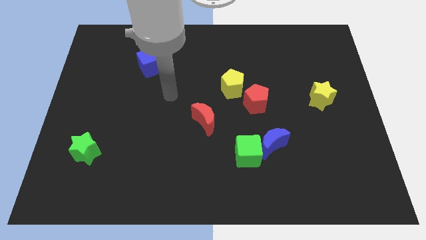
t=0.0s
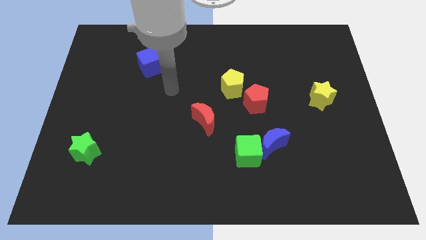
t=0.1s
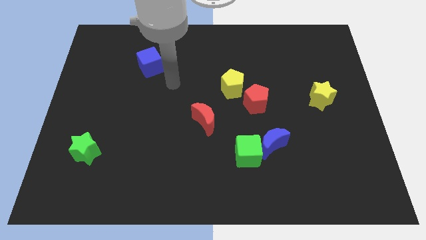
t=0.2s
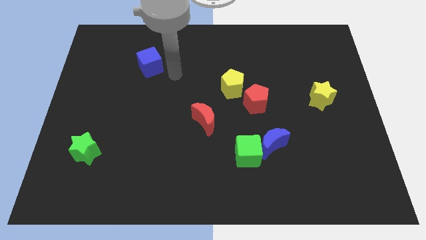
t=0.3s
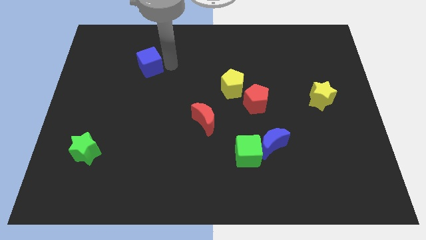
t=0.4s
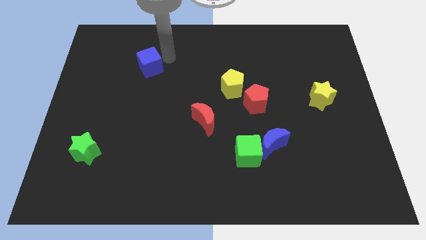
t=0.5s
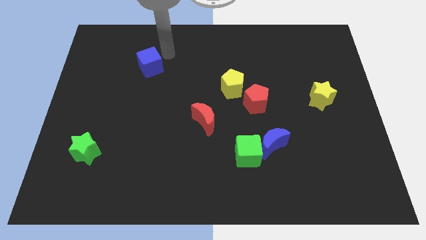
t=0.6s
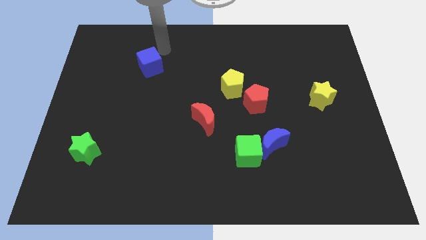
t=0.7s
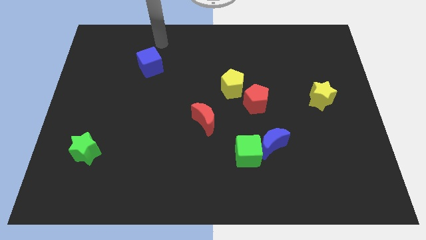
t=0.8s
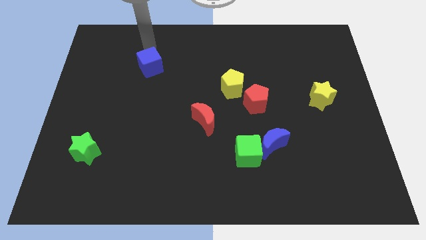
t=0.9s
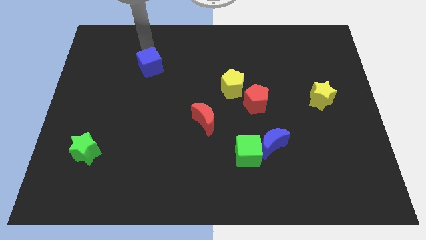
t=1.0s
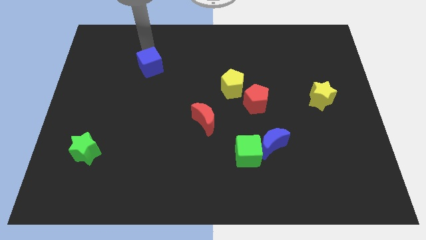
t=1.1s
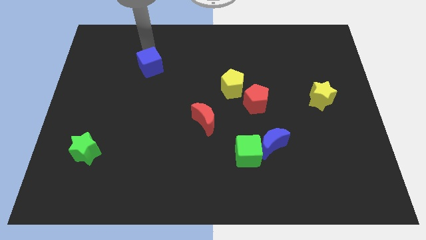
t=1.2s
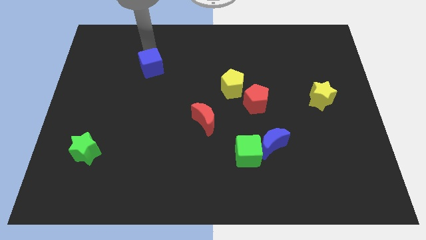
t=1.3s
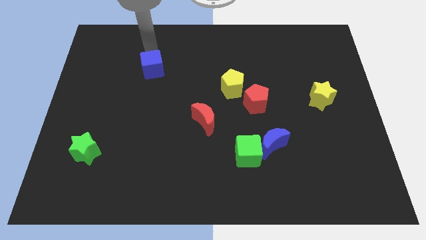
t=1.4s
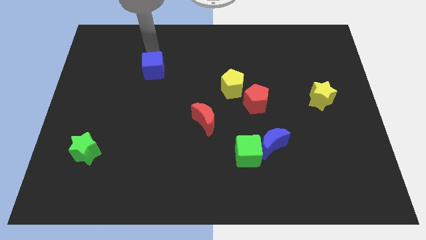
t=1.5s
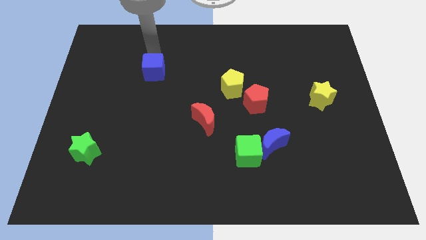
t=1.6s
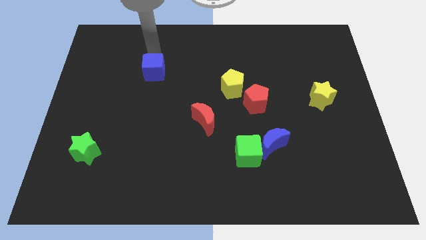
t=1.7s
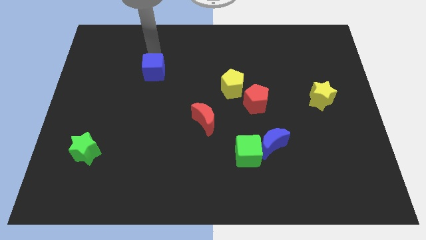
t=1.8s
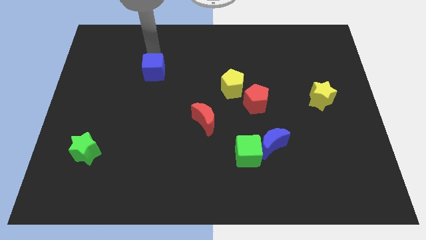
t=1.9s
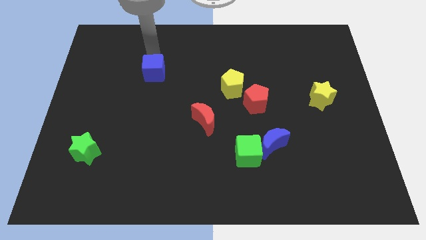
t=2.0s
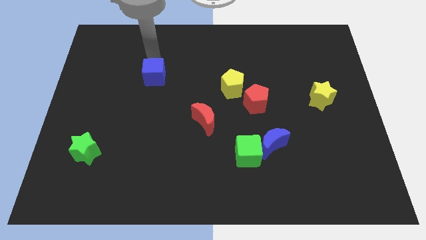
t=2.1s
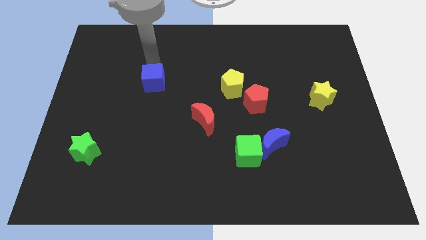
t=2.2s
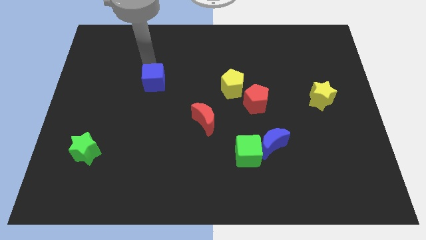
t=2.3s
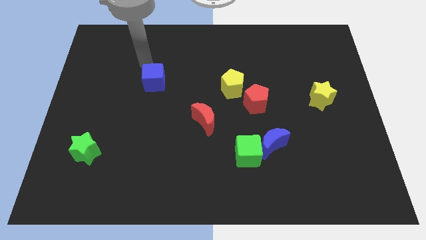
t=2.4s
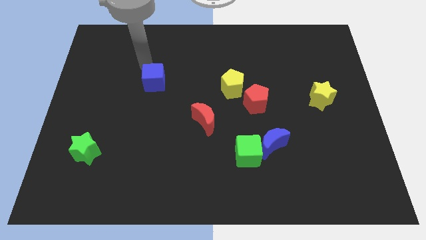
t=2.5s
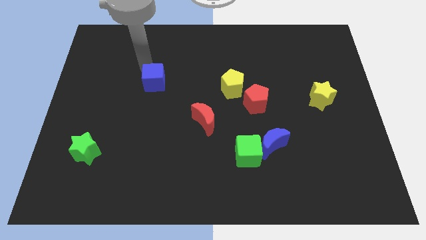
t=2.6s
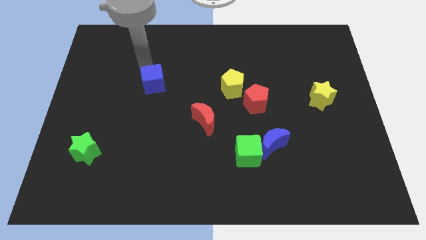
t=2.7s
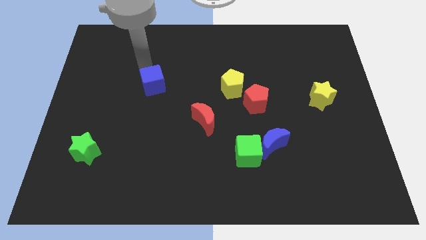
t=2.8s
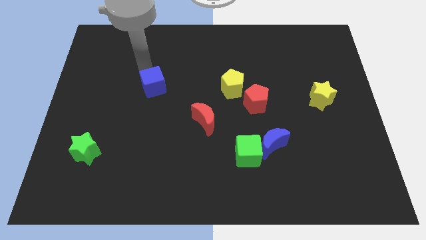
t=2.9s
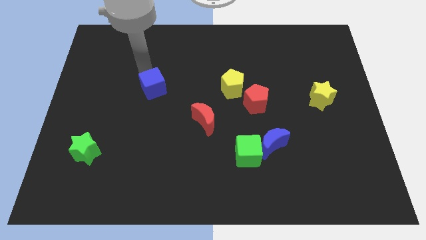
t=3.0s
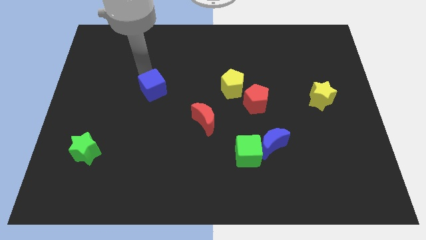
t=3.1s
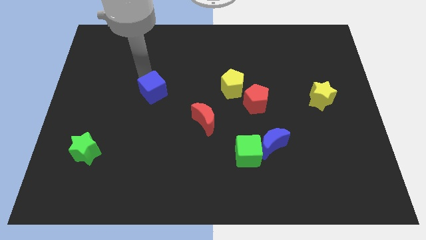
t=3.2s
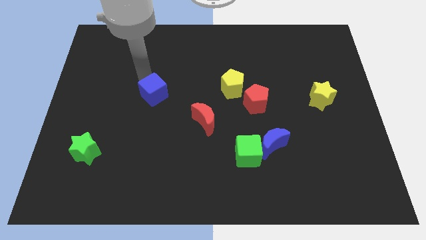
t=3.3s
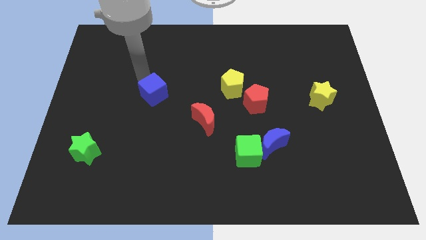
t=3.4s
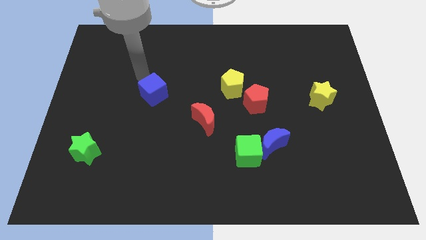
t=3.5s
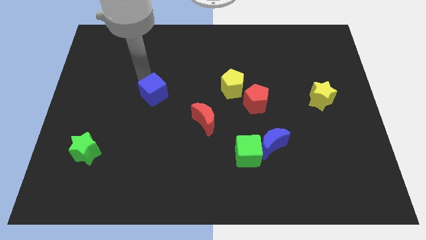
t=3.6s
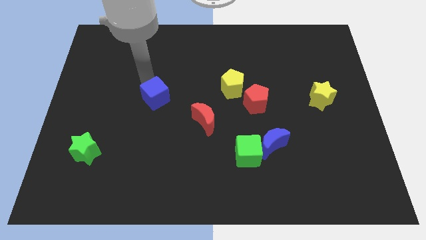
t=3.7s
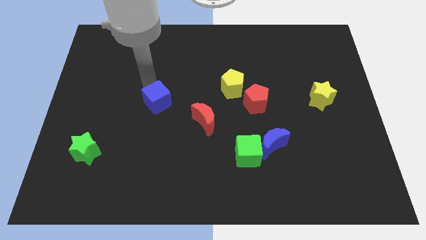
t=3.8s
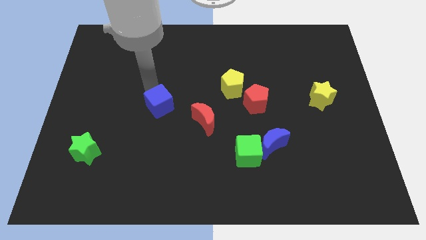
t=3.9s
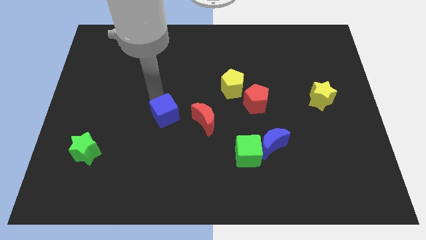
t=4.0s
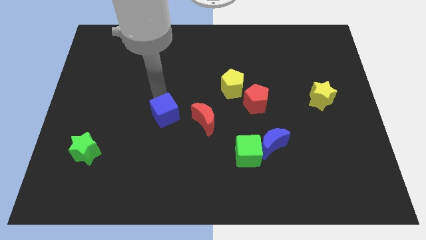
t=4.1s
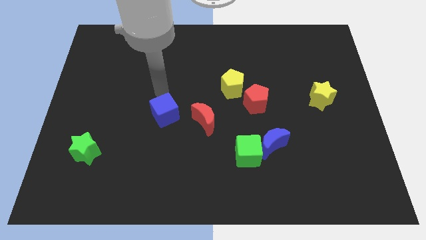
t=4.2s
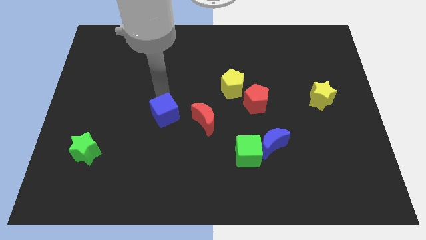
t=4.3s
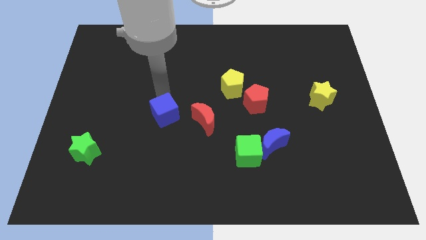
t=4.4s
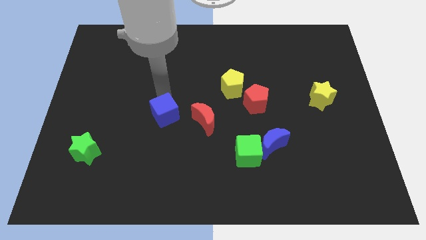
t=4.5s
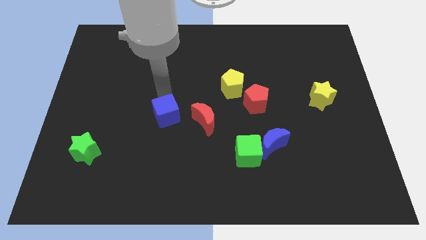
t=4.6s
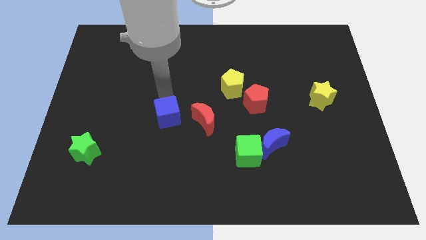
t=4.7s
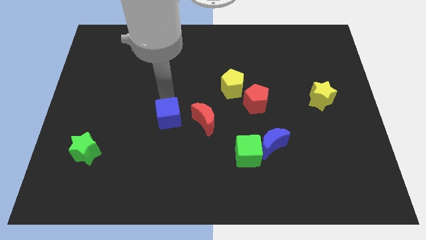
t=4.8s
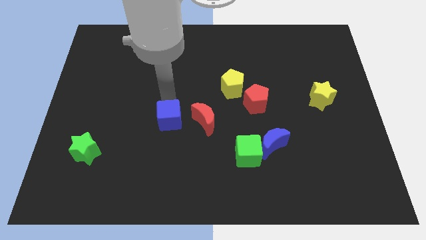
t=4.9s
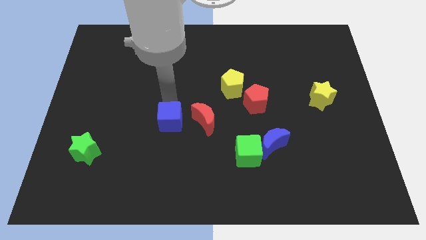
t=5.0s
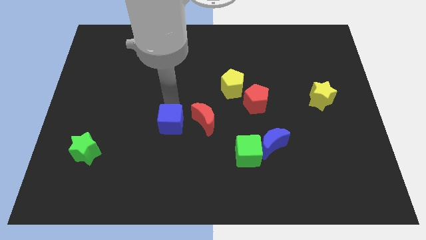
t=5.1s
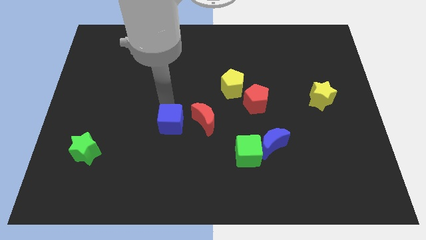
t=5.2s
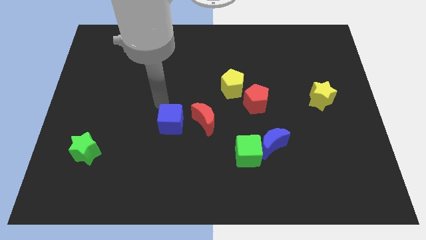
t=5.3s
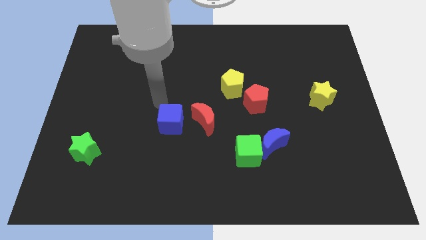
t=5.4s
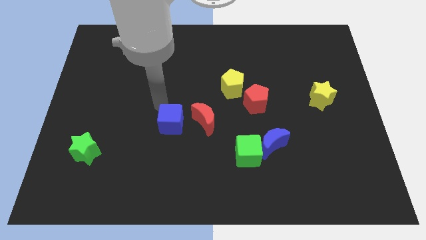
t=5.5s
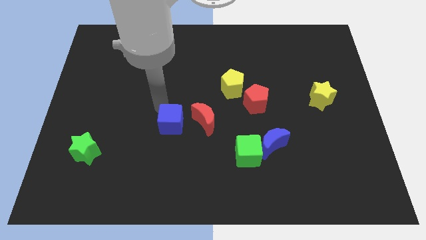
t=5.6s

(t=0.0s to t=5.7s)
slide the blue cube to the bottom left of the red moon

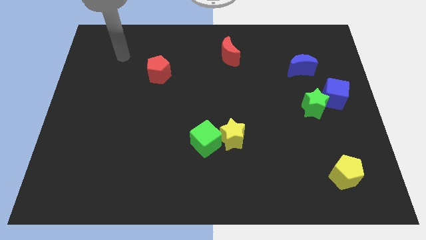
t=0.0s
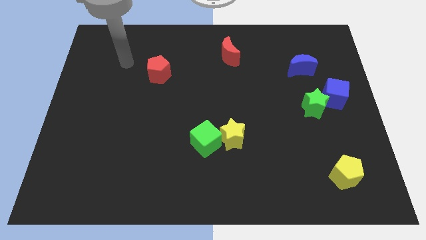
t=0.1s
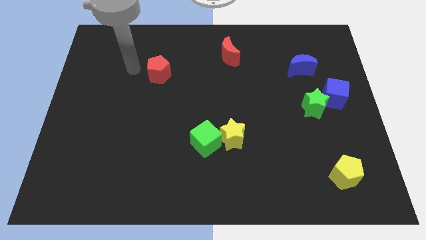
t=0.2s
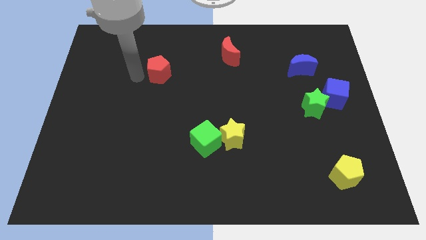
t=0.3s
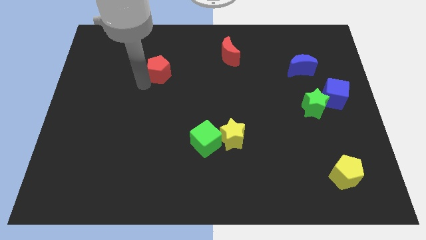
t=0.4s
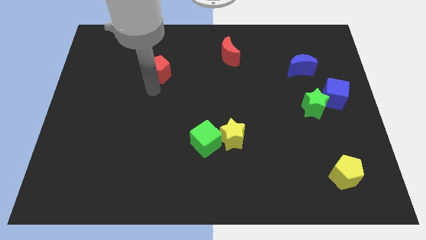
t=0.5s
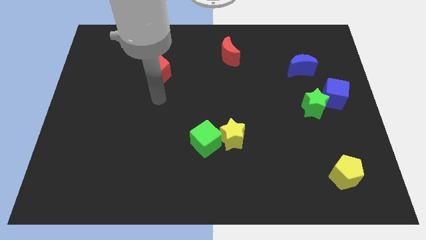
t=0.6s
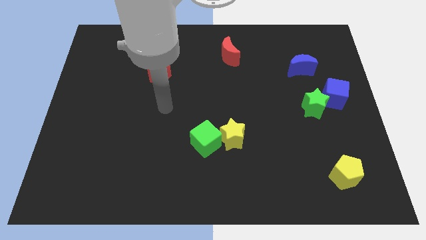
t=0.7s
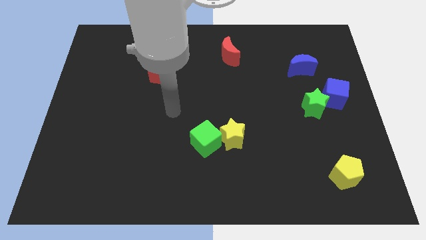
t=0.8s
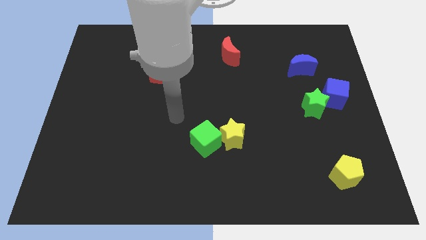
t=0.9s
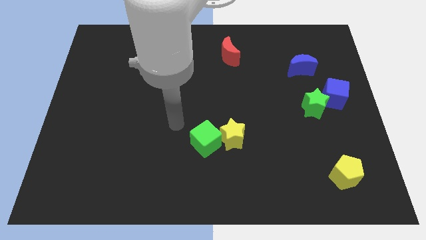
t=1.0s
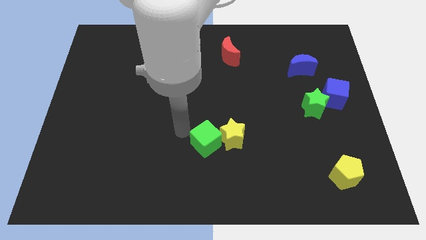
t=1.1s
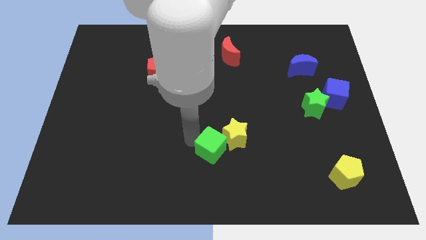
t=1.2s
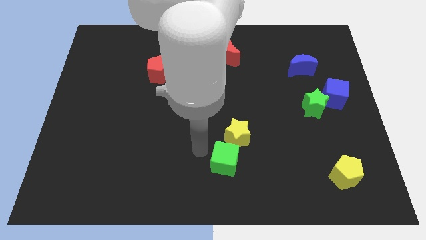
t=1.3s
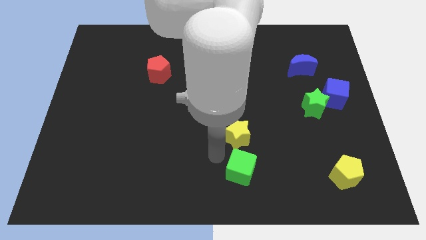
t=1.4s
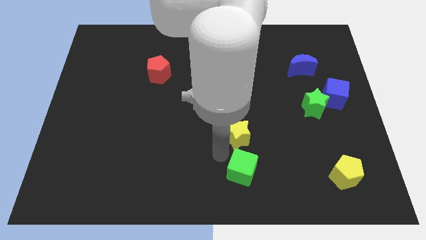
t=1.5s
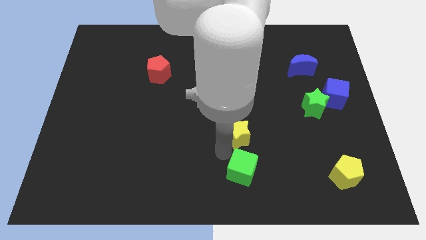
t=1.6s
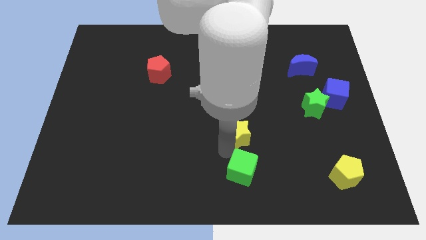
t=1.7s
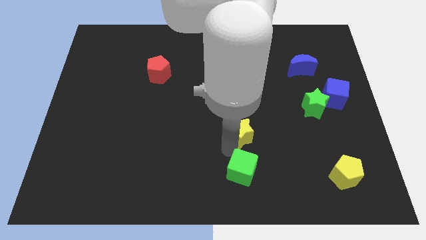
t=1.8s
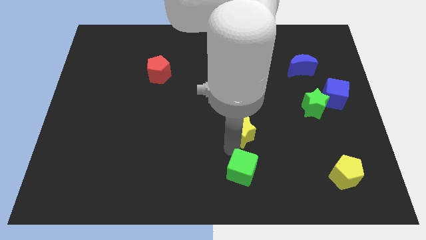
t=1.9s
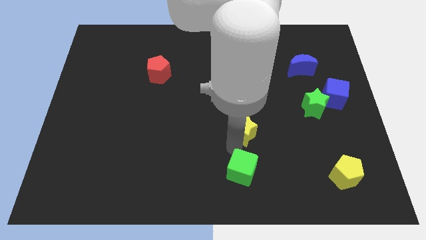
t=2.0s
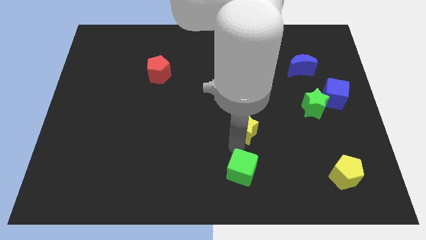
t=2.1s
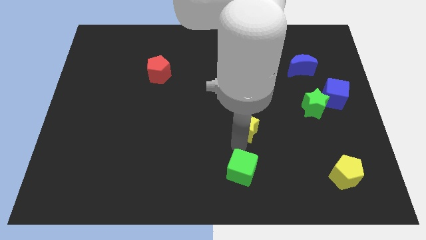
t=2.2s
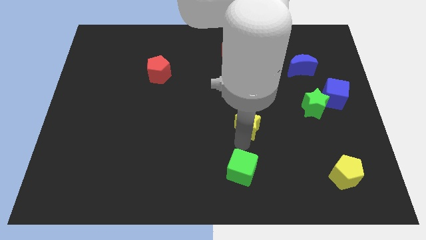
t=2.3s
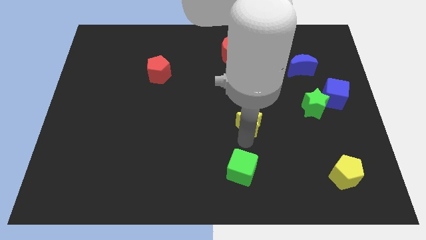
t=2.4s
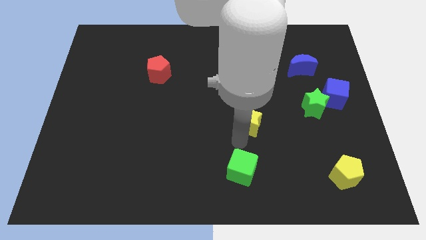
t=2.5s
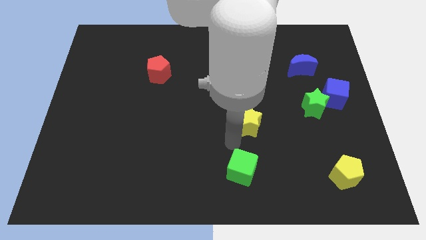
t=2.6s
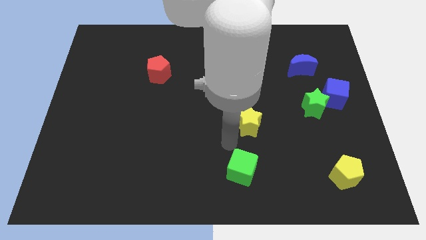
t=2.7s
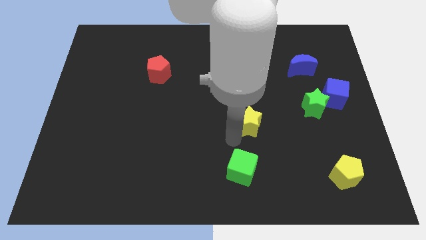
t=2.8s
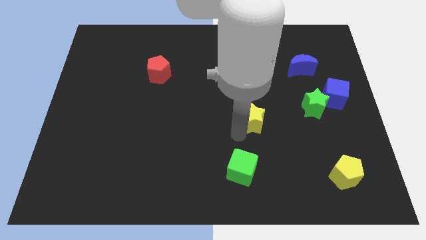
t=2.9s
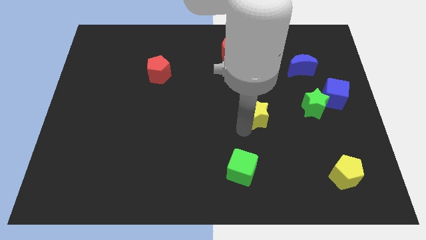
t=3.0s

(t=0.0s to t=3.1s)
put the yellow star to the left of the green star
